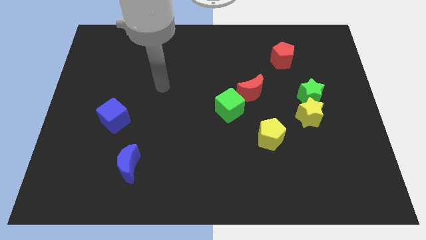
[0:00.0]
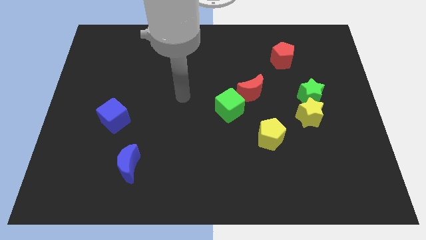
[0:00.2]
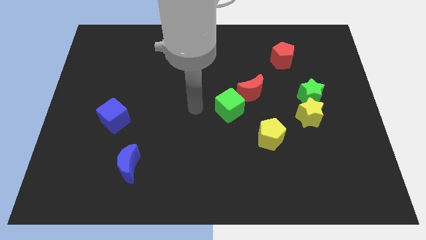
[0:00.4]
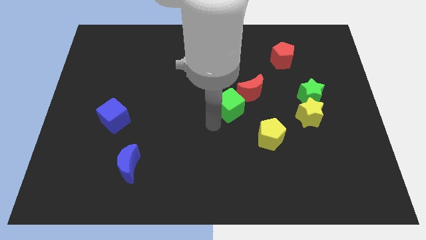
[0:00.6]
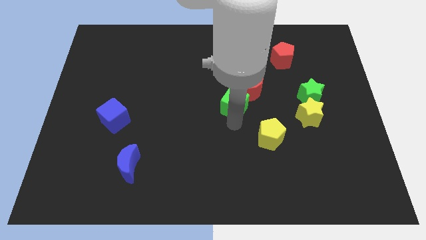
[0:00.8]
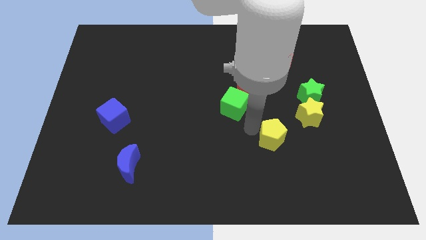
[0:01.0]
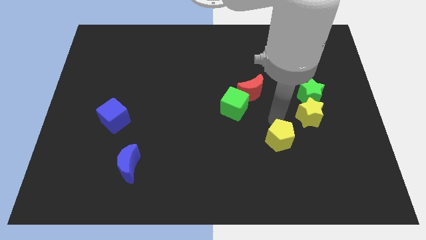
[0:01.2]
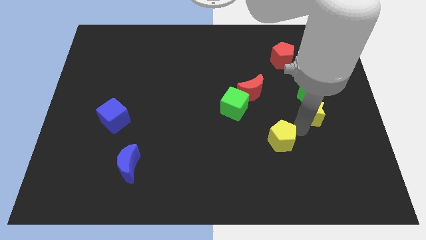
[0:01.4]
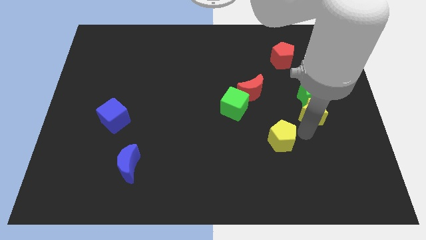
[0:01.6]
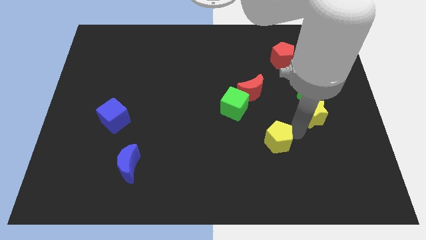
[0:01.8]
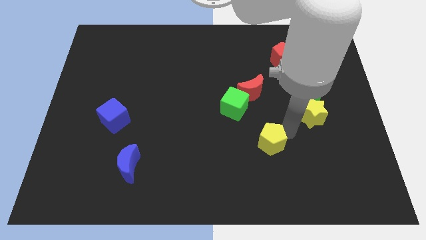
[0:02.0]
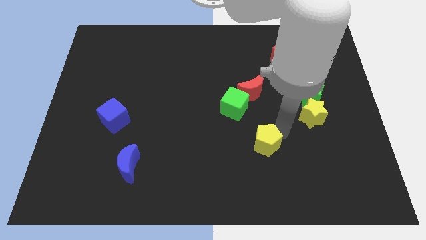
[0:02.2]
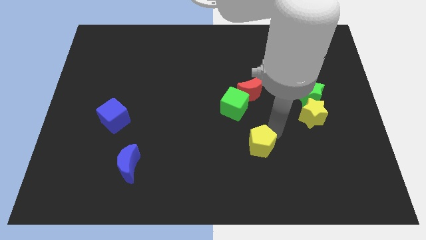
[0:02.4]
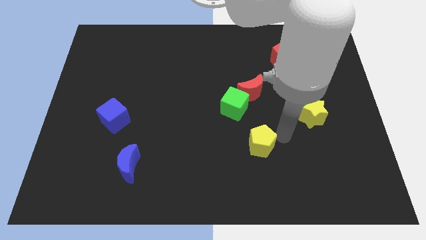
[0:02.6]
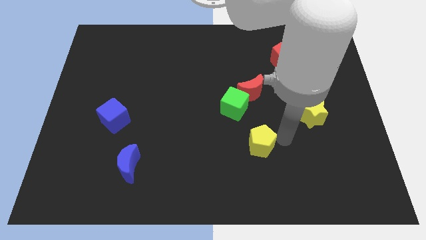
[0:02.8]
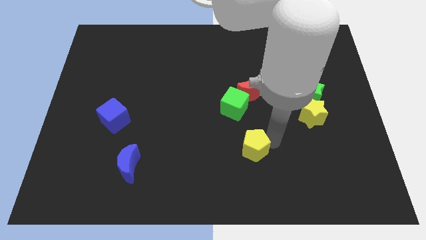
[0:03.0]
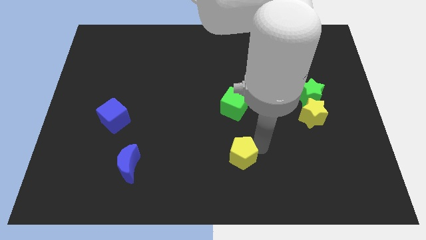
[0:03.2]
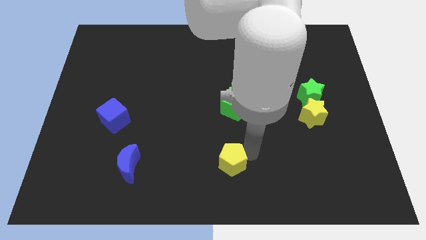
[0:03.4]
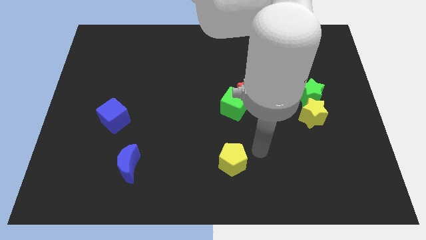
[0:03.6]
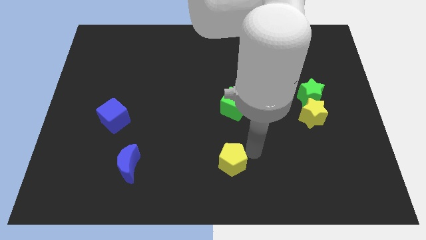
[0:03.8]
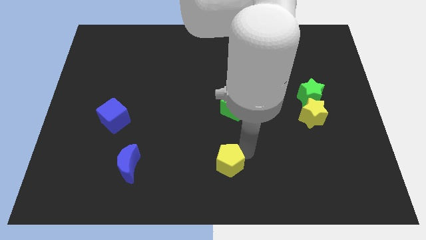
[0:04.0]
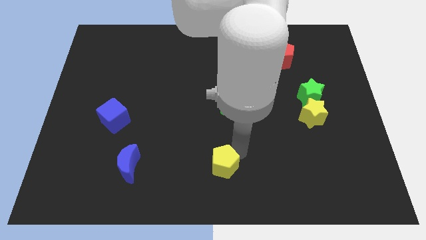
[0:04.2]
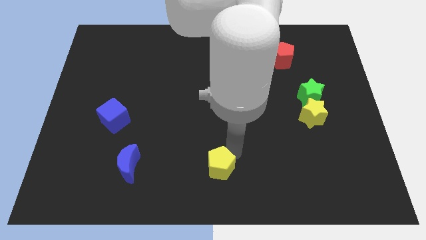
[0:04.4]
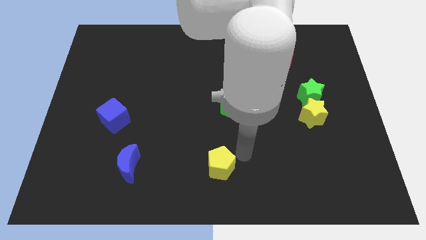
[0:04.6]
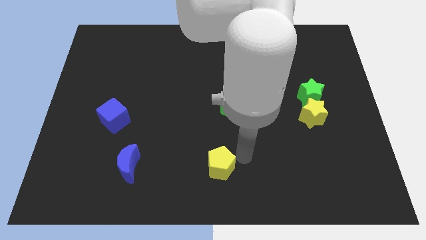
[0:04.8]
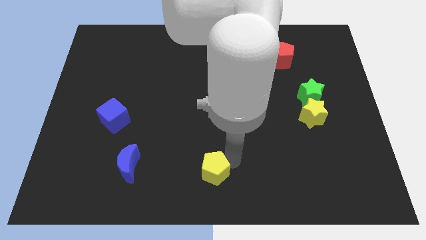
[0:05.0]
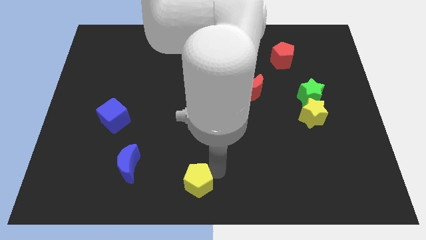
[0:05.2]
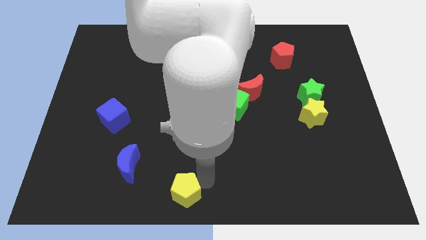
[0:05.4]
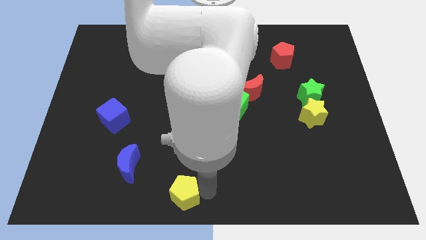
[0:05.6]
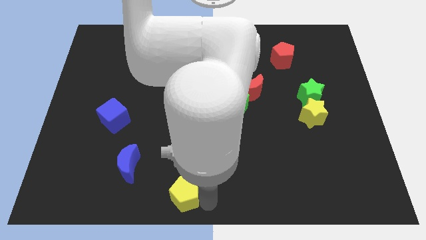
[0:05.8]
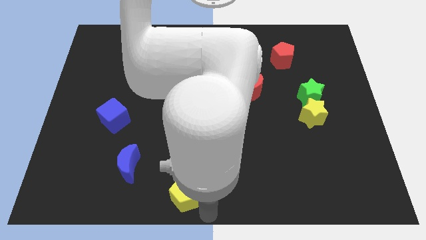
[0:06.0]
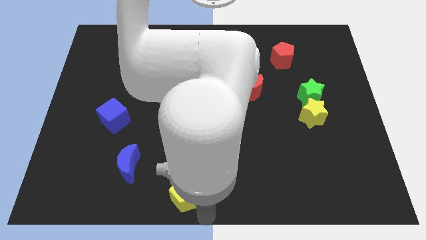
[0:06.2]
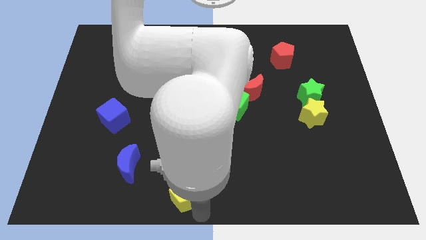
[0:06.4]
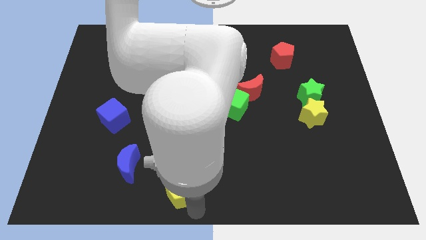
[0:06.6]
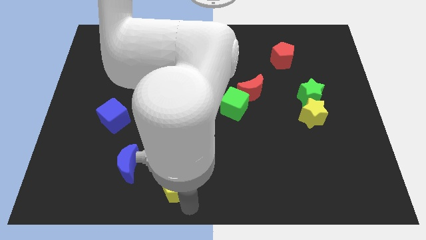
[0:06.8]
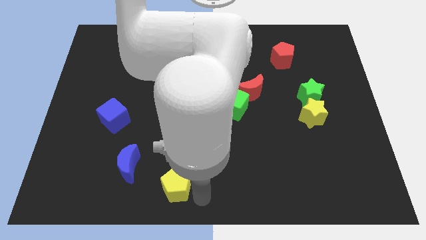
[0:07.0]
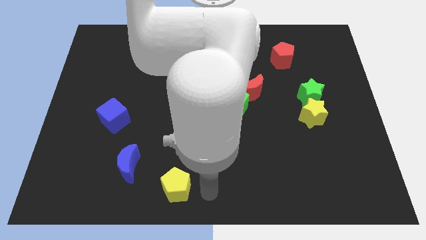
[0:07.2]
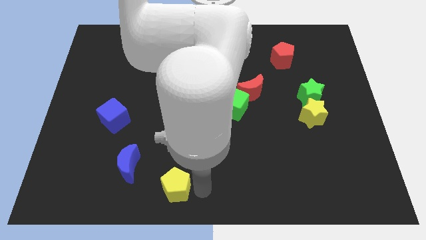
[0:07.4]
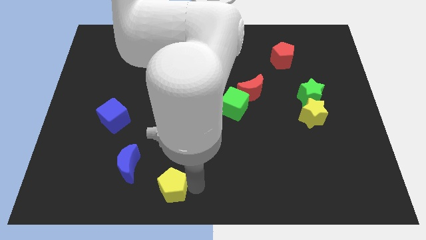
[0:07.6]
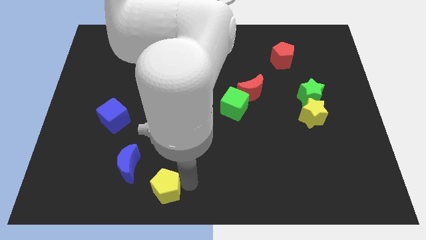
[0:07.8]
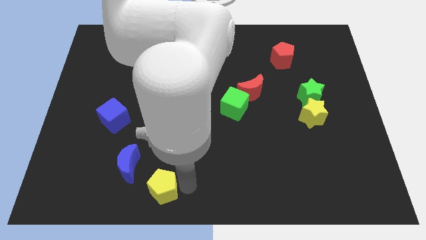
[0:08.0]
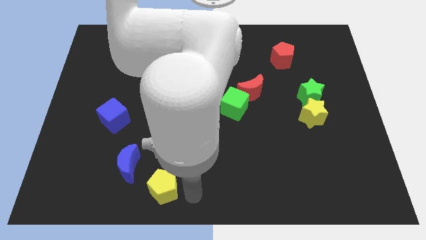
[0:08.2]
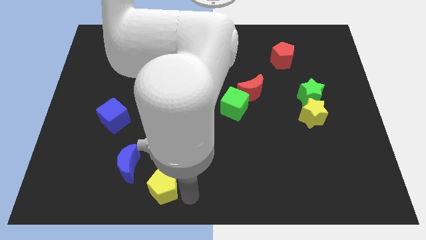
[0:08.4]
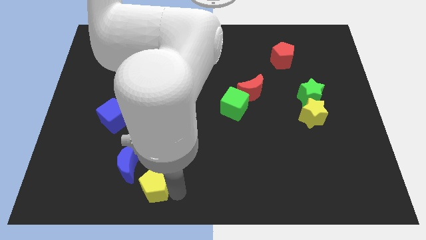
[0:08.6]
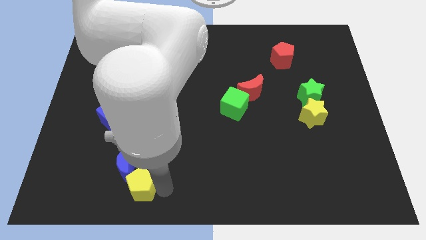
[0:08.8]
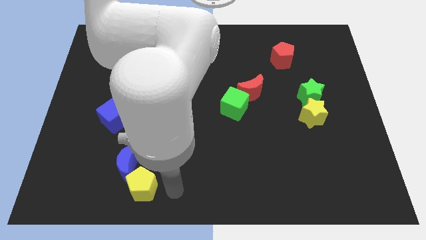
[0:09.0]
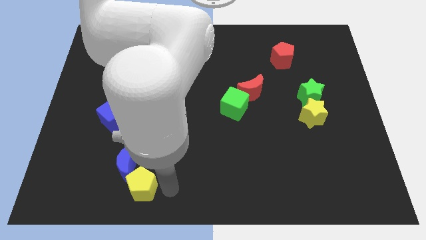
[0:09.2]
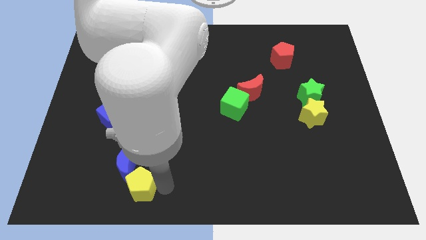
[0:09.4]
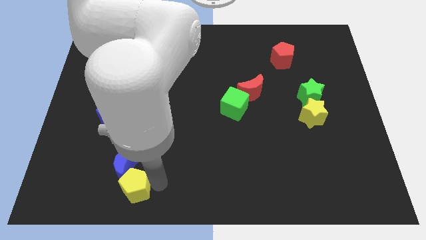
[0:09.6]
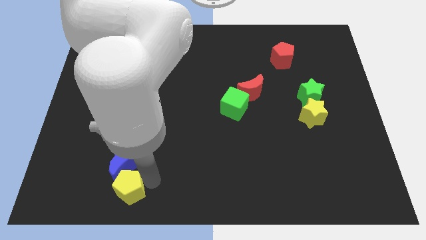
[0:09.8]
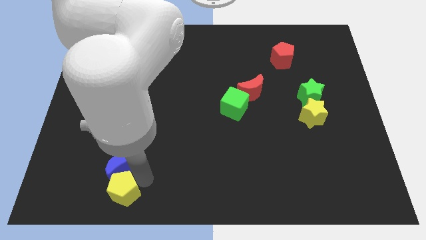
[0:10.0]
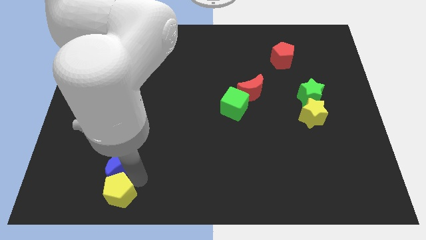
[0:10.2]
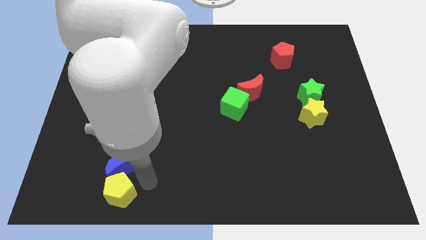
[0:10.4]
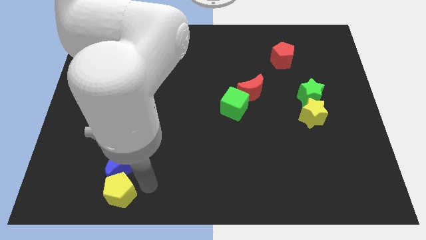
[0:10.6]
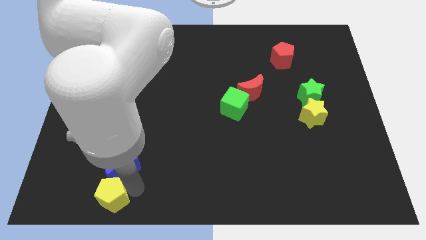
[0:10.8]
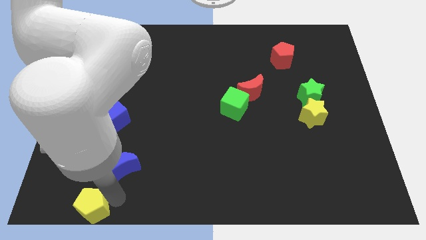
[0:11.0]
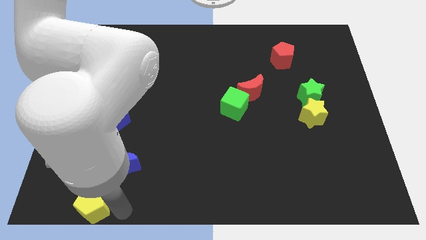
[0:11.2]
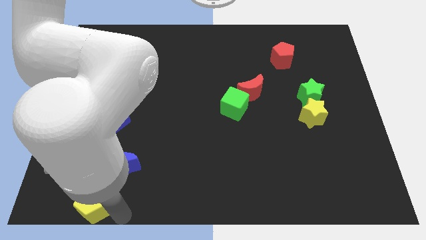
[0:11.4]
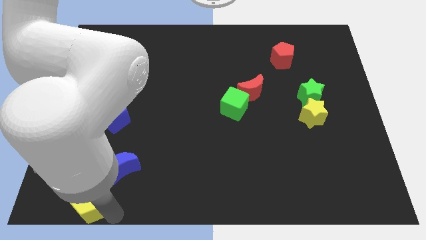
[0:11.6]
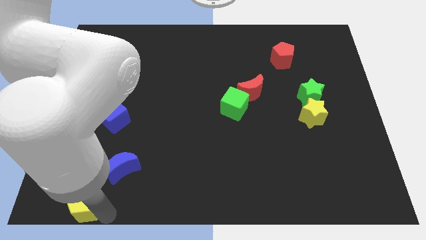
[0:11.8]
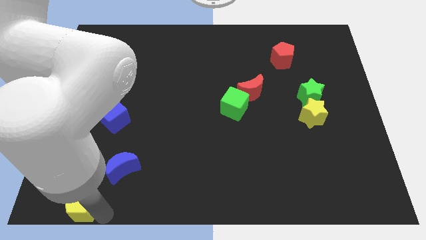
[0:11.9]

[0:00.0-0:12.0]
slide the yellow pentagon to the lower left corner
